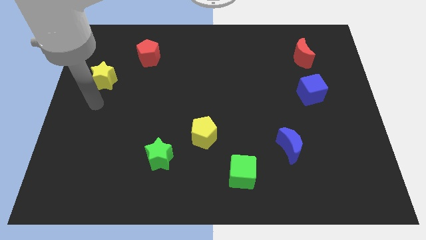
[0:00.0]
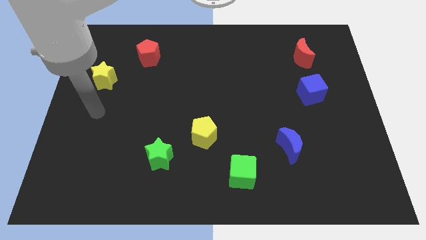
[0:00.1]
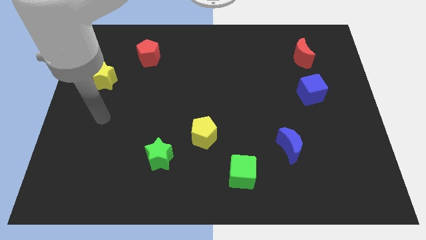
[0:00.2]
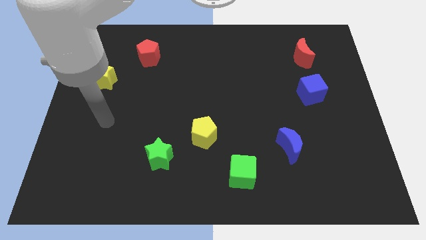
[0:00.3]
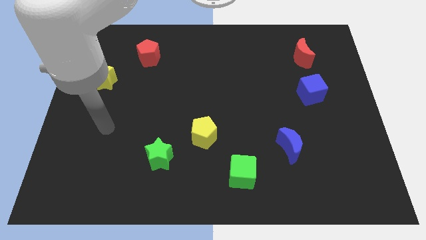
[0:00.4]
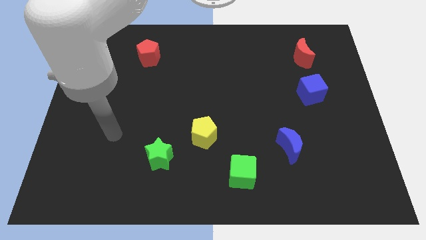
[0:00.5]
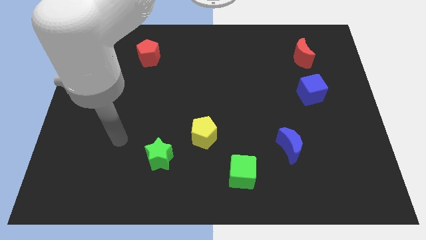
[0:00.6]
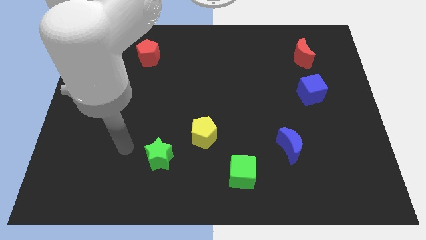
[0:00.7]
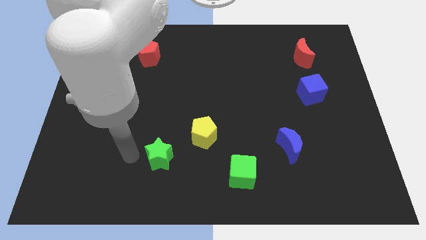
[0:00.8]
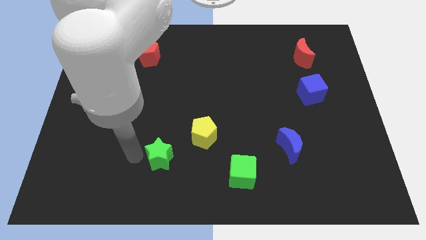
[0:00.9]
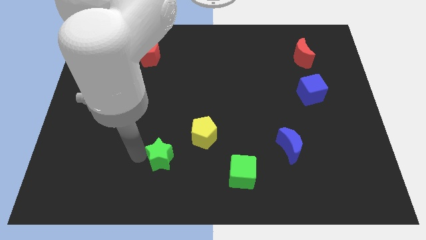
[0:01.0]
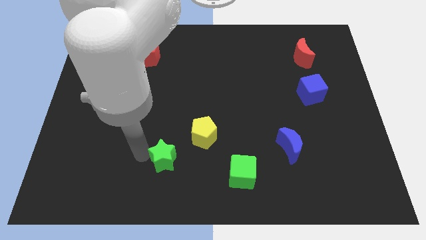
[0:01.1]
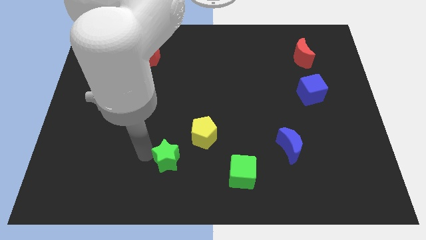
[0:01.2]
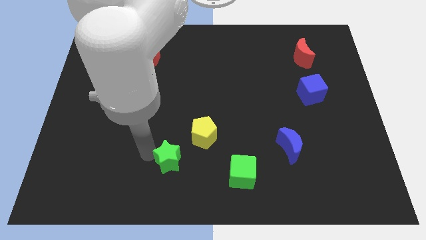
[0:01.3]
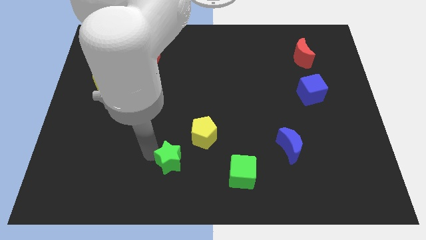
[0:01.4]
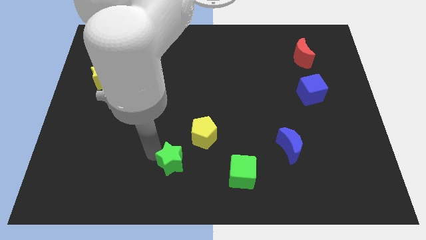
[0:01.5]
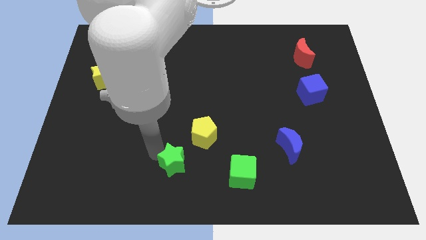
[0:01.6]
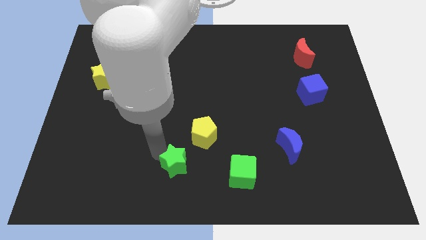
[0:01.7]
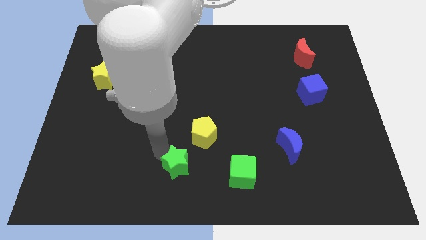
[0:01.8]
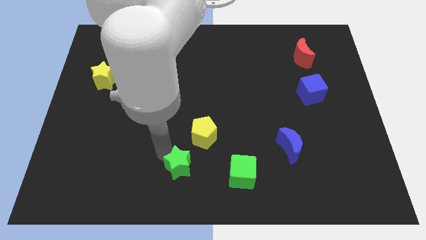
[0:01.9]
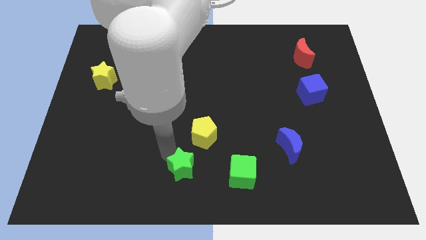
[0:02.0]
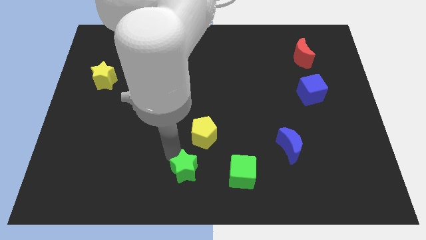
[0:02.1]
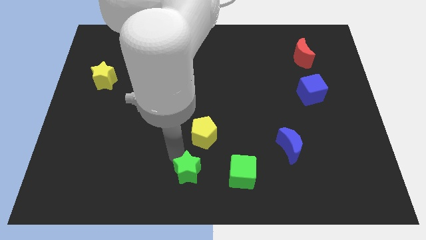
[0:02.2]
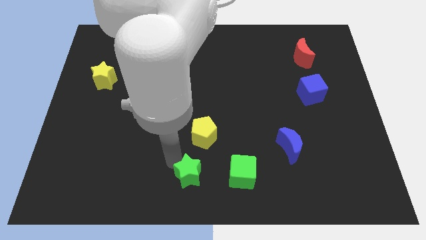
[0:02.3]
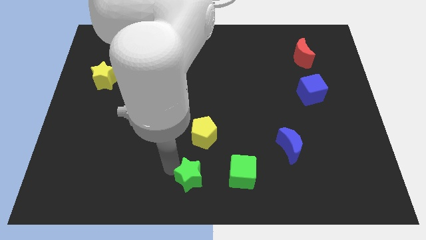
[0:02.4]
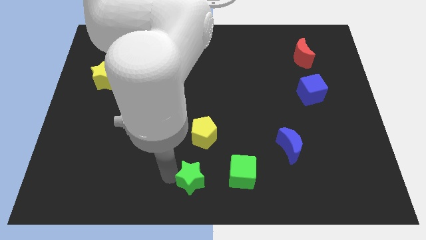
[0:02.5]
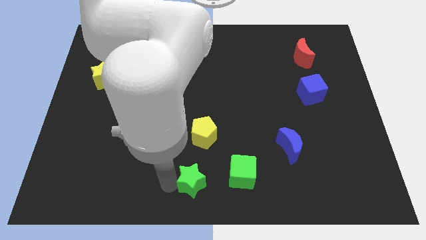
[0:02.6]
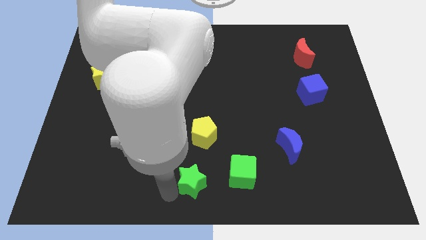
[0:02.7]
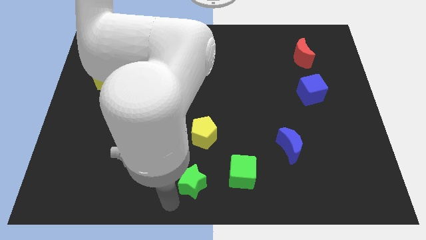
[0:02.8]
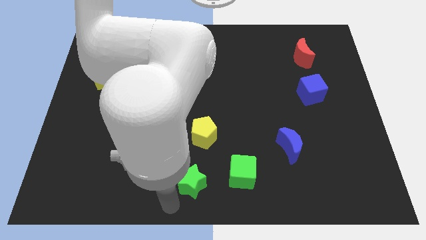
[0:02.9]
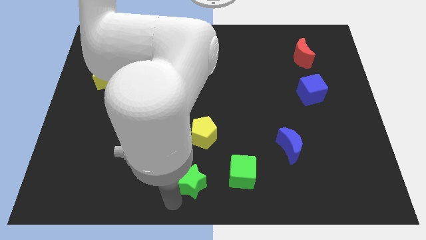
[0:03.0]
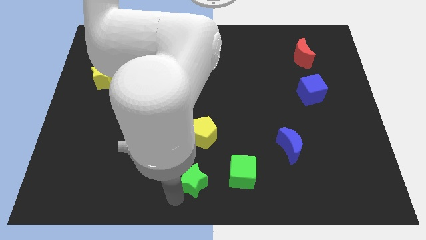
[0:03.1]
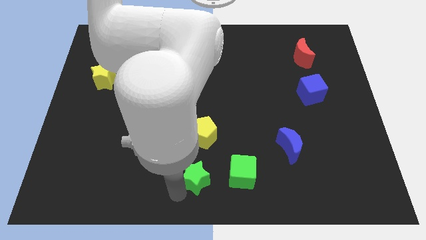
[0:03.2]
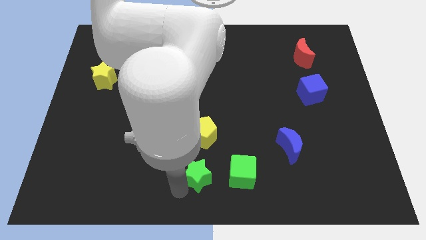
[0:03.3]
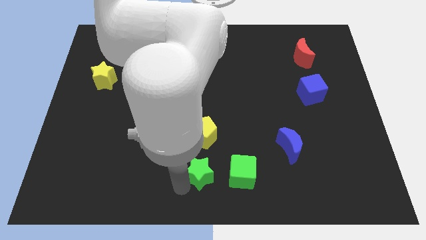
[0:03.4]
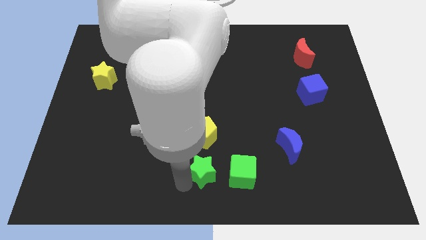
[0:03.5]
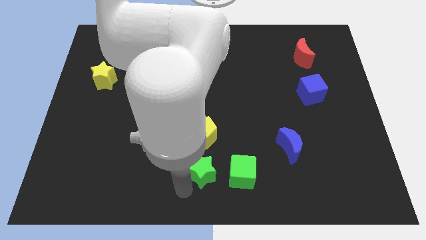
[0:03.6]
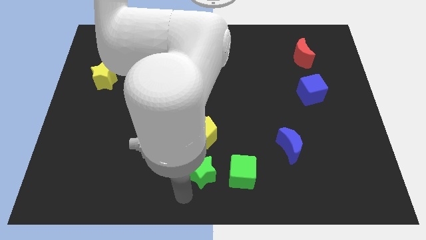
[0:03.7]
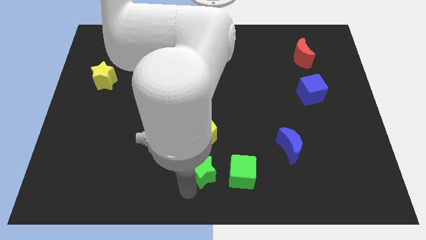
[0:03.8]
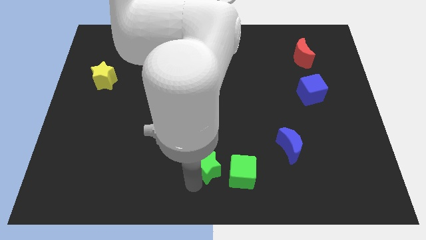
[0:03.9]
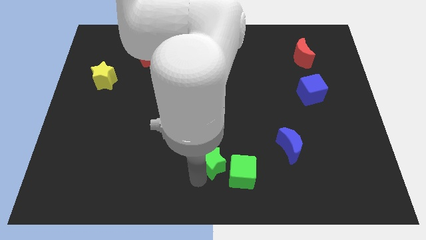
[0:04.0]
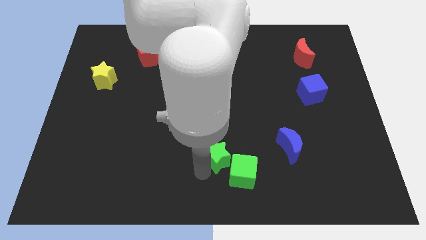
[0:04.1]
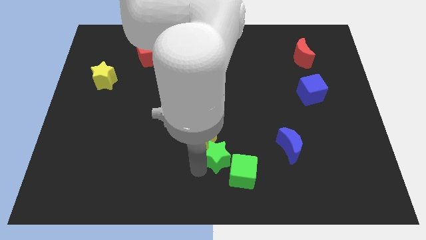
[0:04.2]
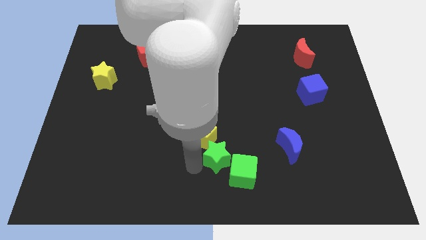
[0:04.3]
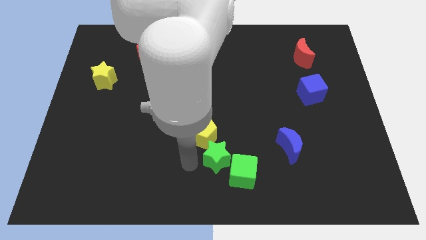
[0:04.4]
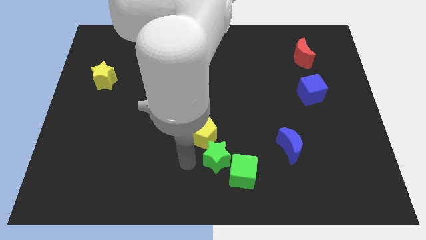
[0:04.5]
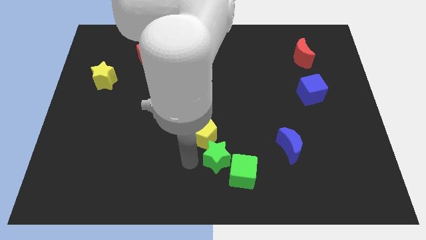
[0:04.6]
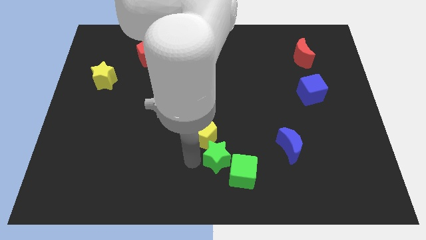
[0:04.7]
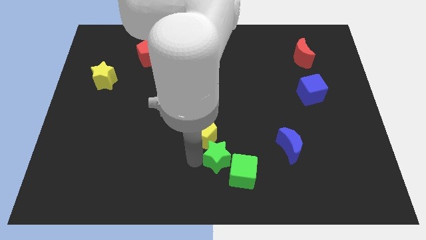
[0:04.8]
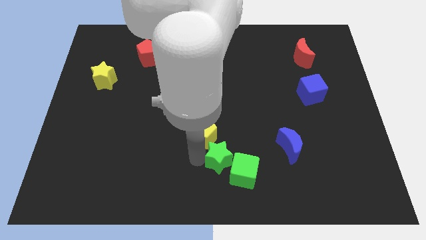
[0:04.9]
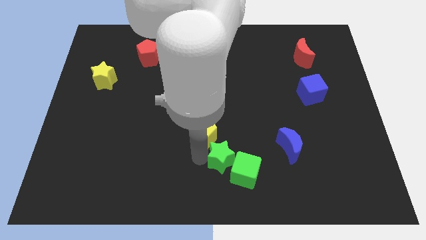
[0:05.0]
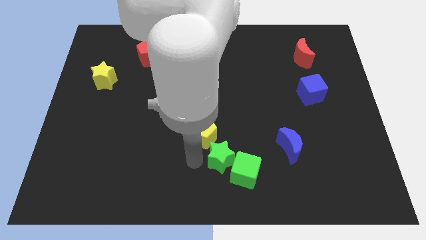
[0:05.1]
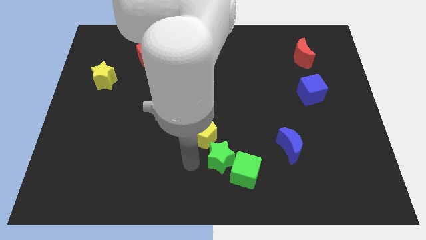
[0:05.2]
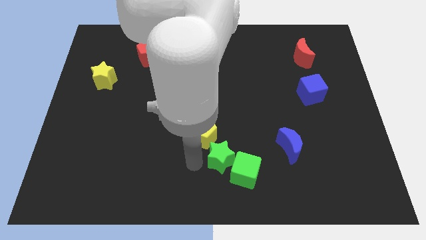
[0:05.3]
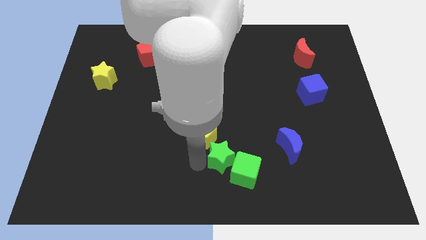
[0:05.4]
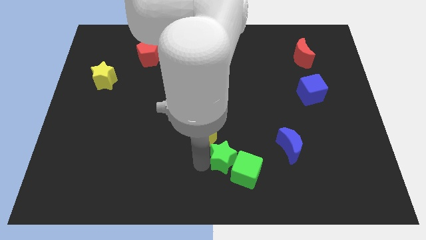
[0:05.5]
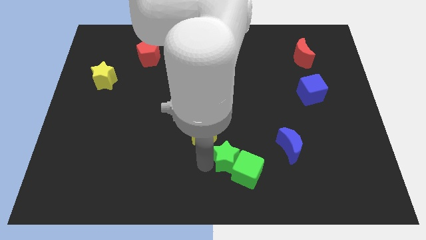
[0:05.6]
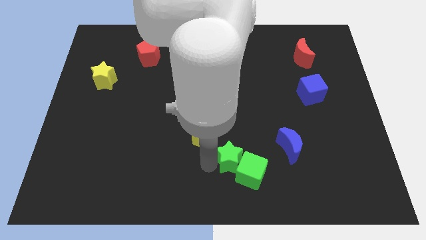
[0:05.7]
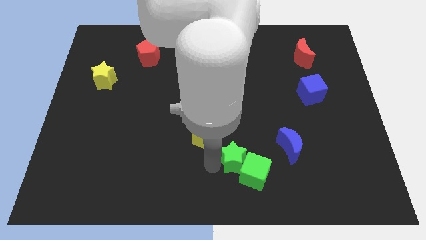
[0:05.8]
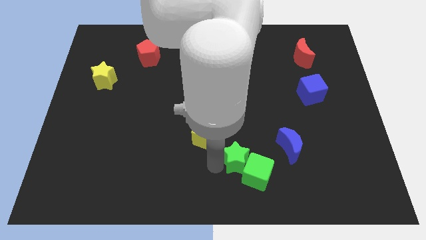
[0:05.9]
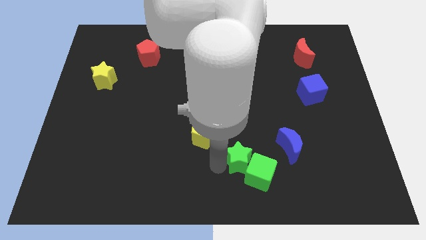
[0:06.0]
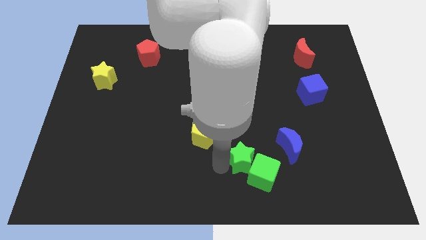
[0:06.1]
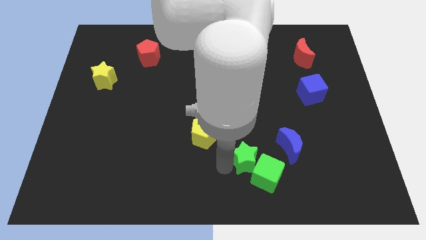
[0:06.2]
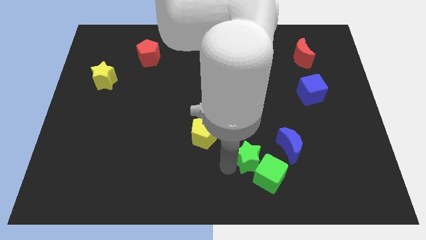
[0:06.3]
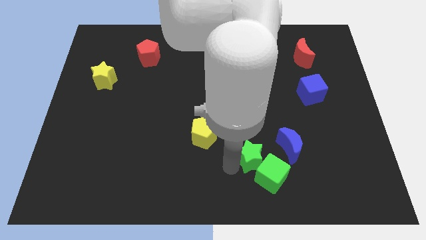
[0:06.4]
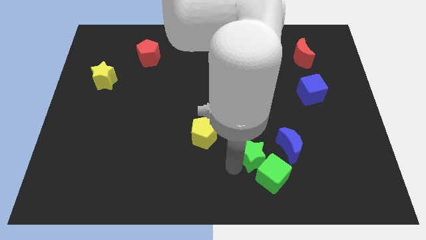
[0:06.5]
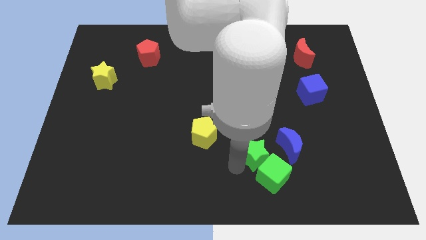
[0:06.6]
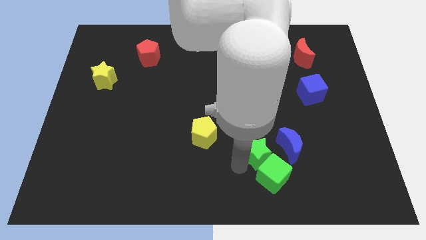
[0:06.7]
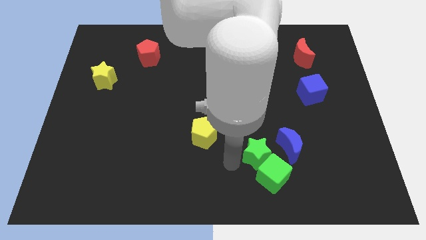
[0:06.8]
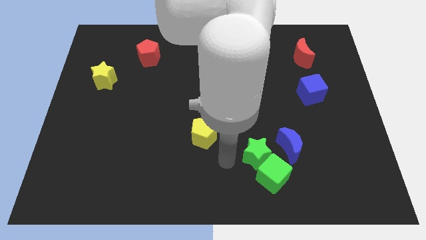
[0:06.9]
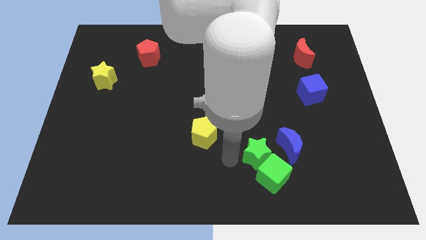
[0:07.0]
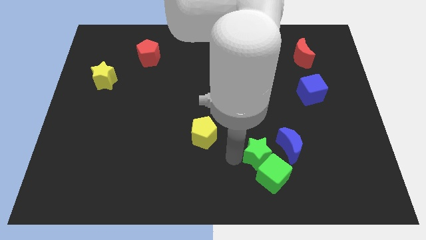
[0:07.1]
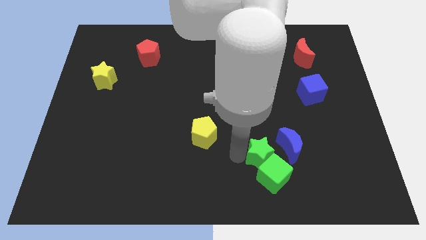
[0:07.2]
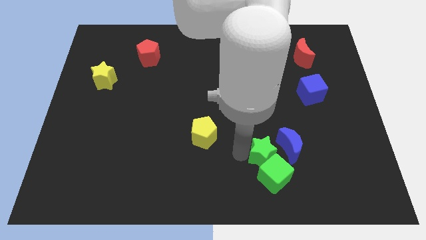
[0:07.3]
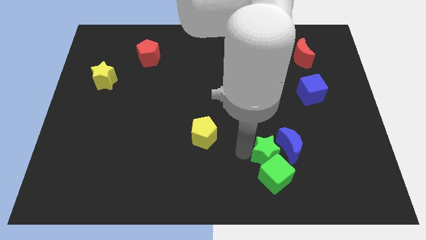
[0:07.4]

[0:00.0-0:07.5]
slide the green star to the blue moon
